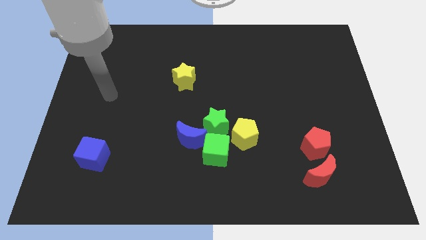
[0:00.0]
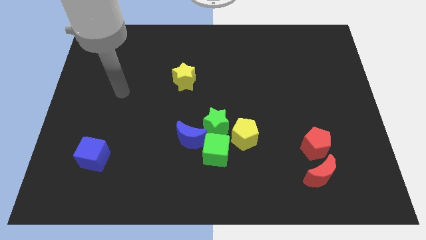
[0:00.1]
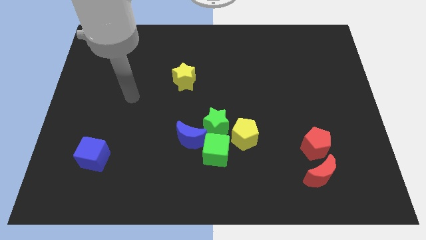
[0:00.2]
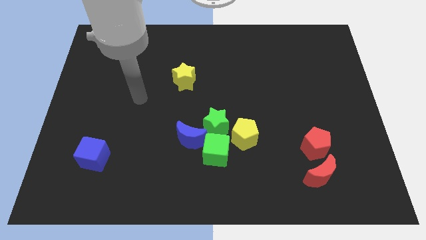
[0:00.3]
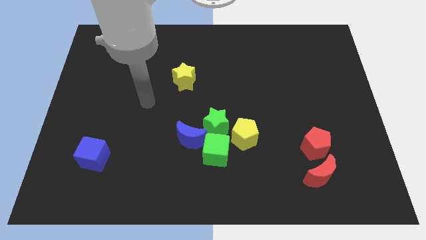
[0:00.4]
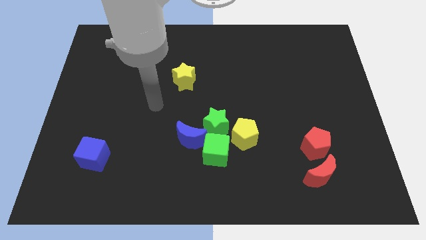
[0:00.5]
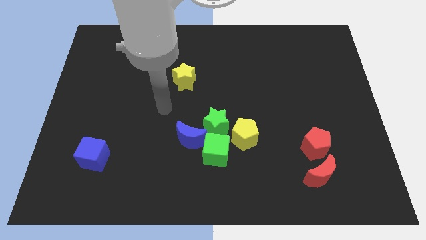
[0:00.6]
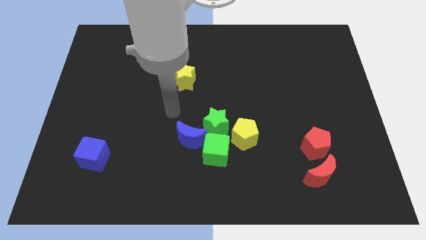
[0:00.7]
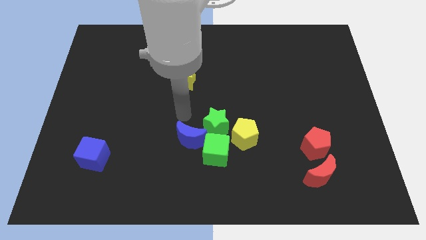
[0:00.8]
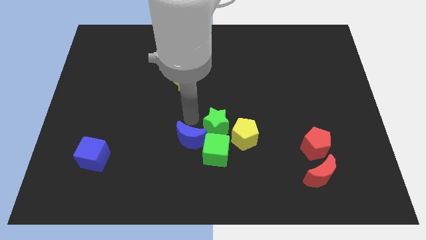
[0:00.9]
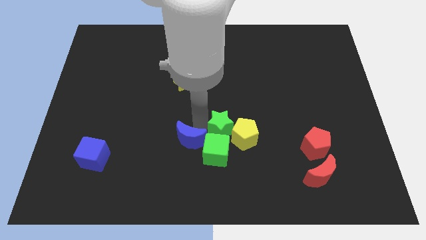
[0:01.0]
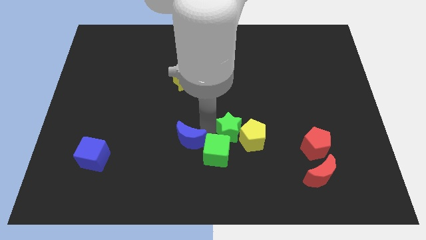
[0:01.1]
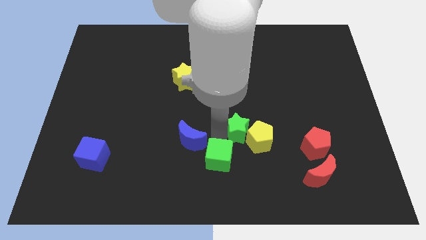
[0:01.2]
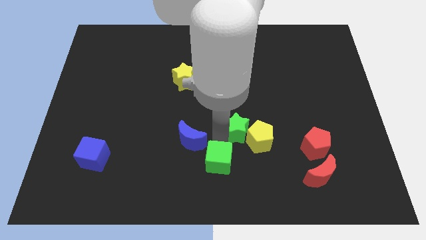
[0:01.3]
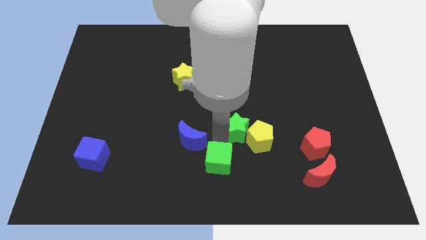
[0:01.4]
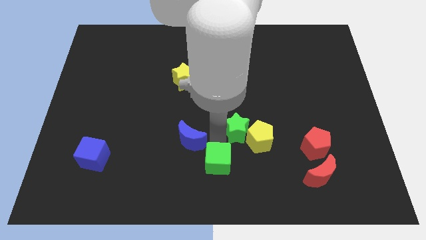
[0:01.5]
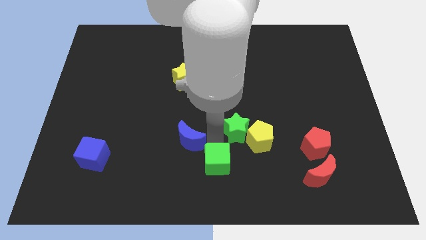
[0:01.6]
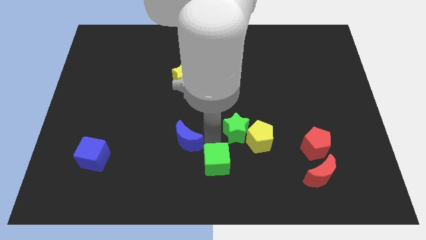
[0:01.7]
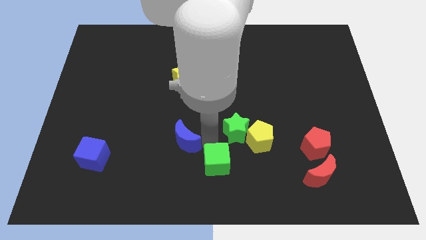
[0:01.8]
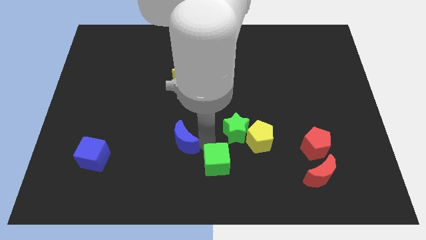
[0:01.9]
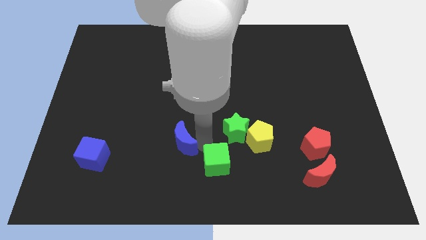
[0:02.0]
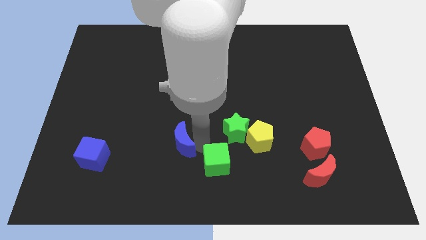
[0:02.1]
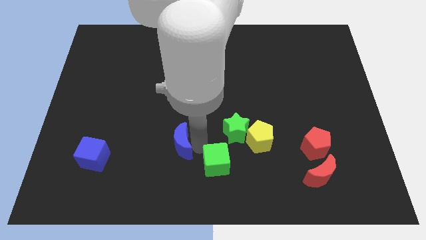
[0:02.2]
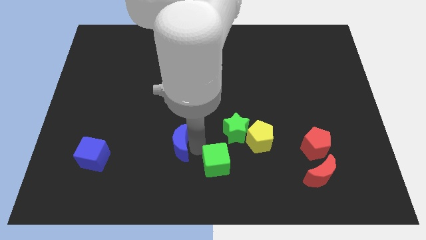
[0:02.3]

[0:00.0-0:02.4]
move the blue moon away from the green cube and green star

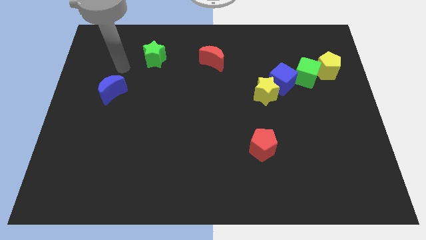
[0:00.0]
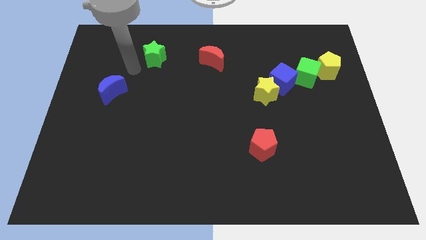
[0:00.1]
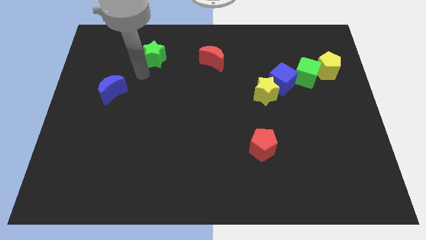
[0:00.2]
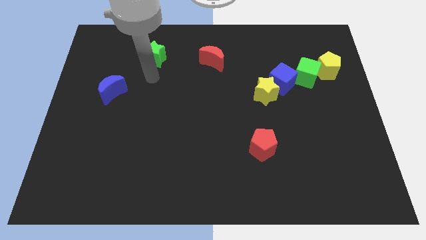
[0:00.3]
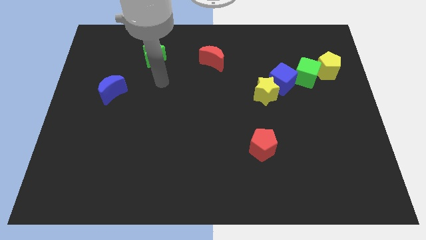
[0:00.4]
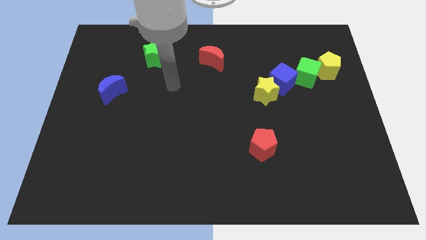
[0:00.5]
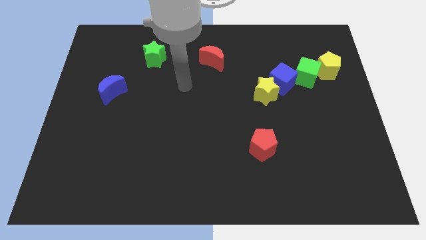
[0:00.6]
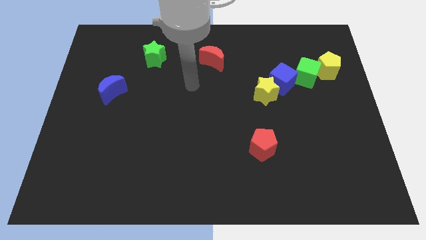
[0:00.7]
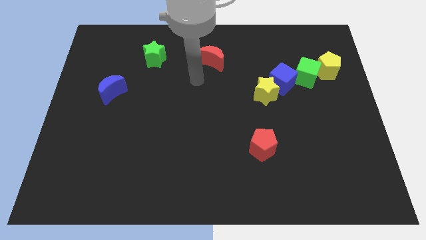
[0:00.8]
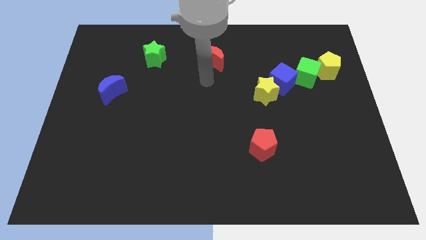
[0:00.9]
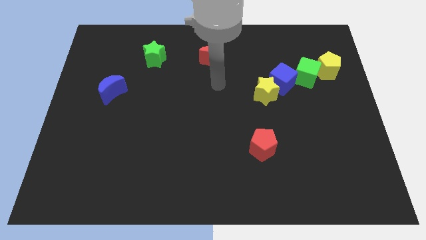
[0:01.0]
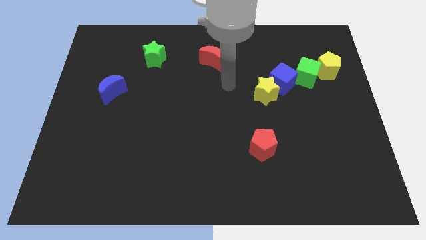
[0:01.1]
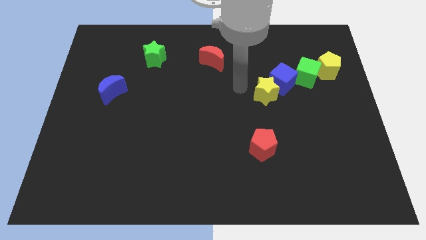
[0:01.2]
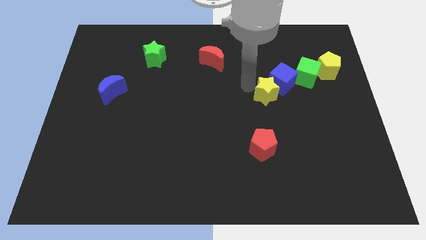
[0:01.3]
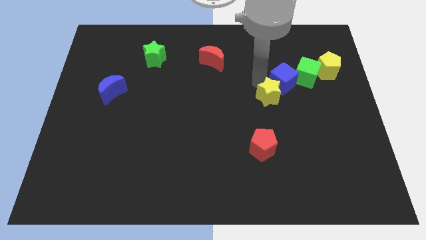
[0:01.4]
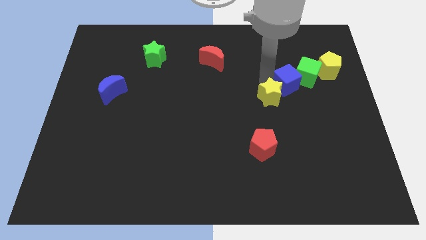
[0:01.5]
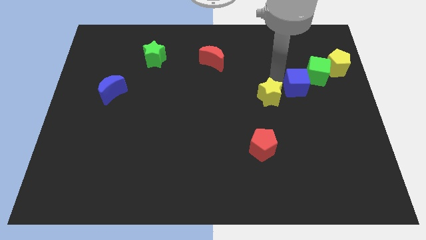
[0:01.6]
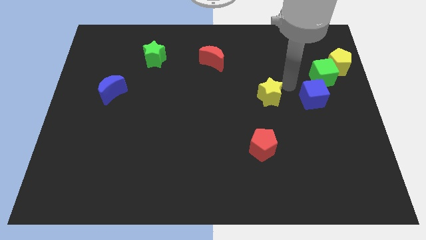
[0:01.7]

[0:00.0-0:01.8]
move the yellow star away from the blue cube

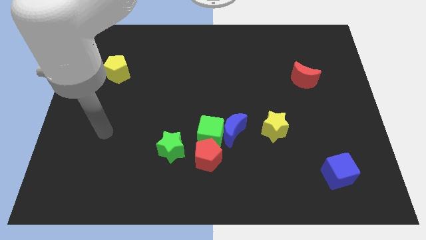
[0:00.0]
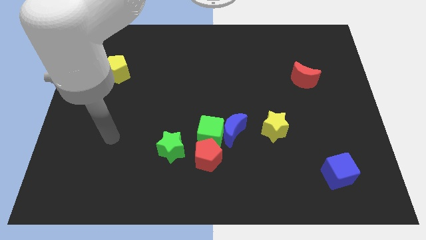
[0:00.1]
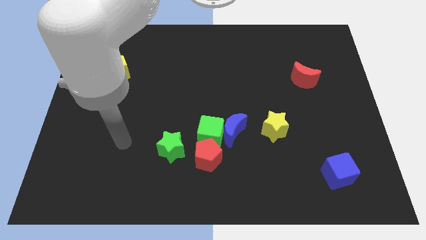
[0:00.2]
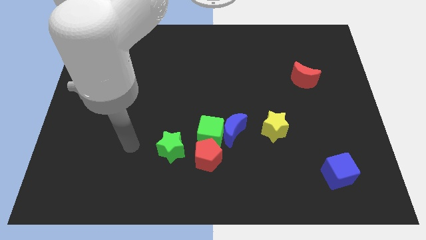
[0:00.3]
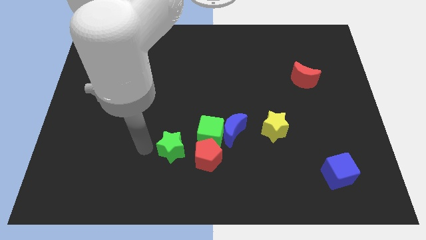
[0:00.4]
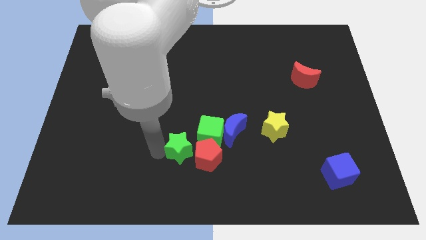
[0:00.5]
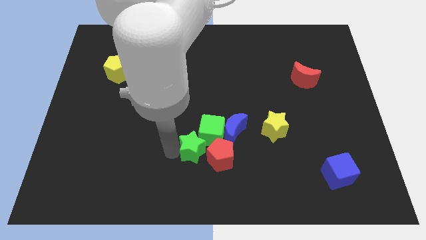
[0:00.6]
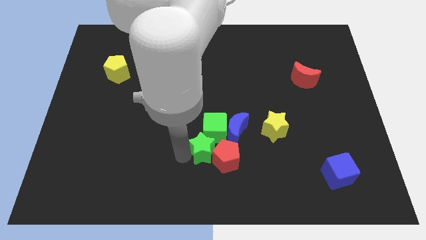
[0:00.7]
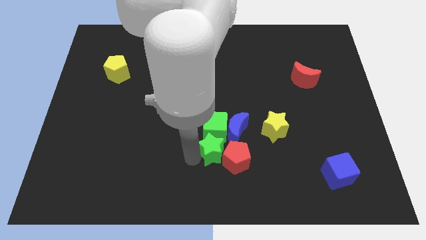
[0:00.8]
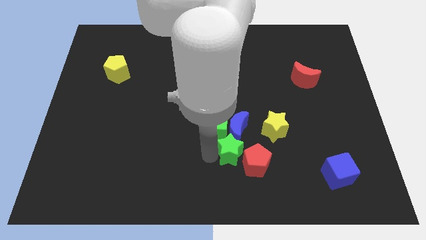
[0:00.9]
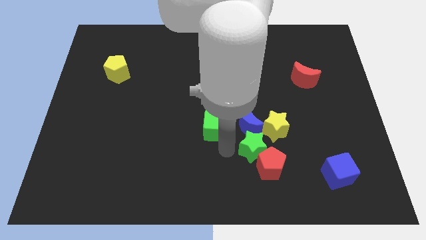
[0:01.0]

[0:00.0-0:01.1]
separate the green cube from the group of blocks

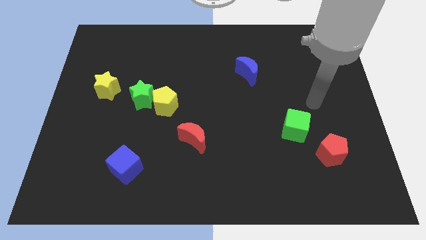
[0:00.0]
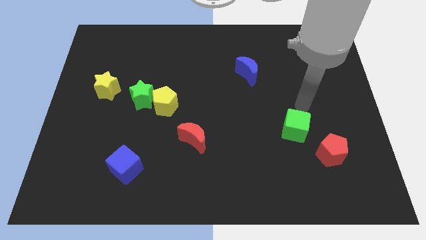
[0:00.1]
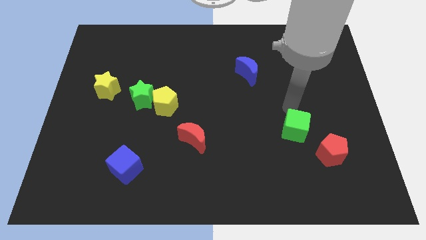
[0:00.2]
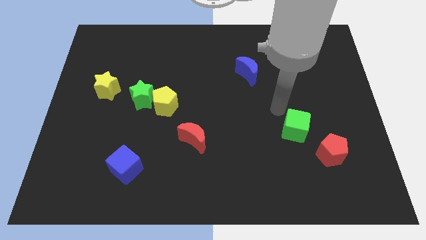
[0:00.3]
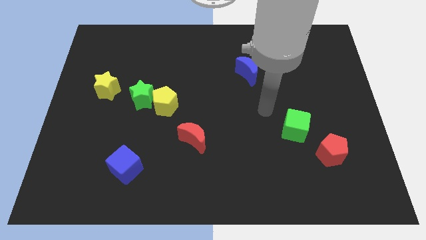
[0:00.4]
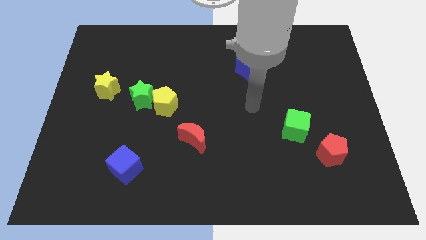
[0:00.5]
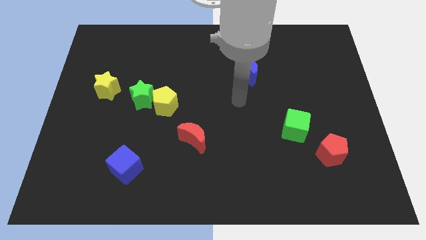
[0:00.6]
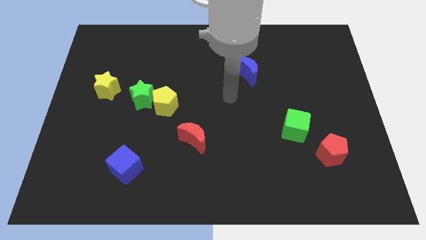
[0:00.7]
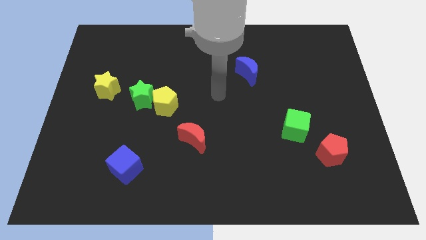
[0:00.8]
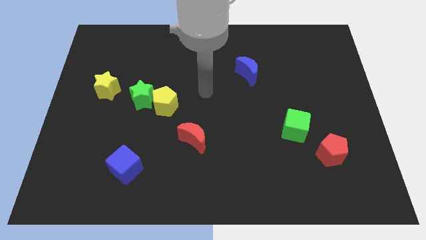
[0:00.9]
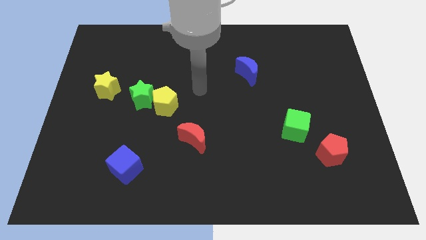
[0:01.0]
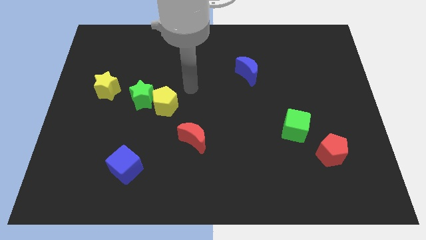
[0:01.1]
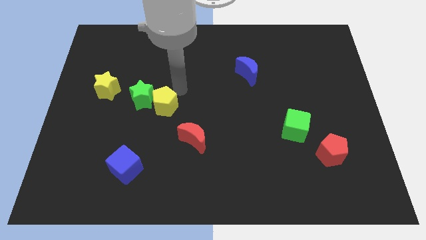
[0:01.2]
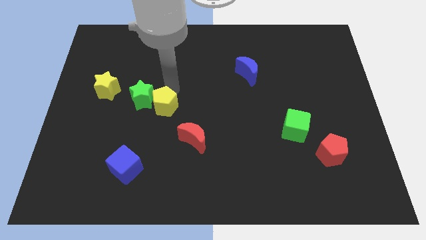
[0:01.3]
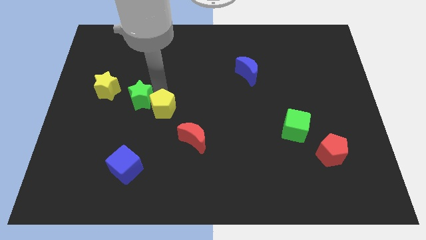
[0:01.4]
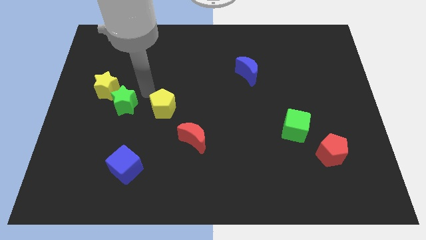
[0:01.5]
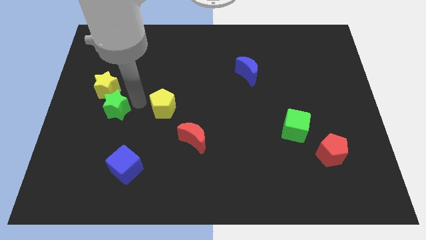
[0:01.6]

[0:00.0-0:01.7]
separate the yellow pentagon from the green star

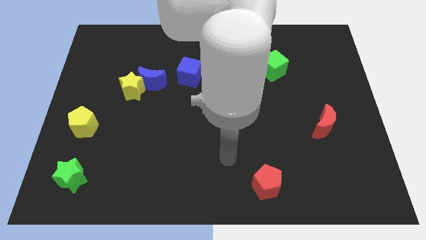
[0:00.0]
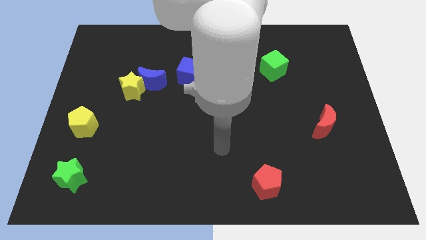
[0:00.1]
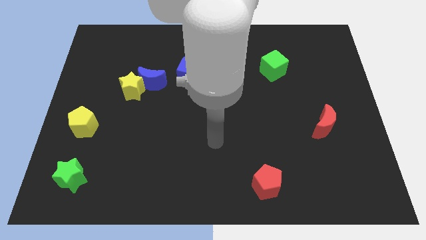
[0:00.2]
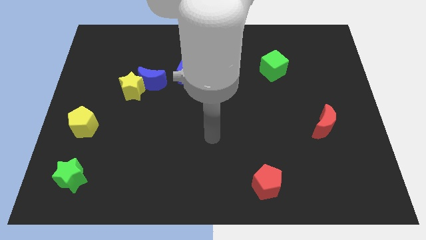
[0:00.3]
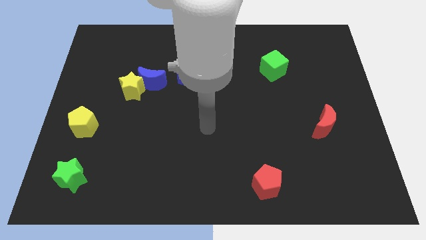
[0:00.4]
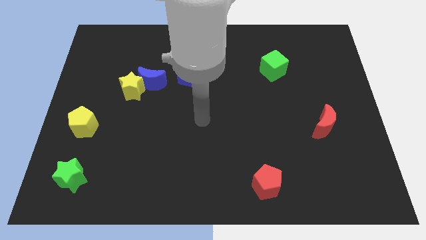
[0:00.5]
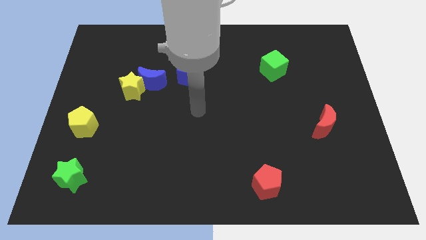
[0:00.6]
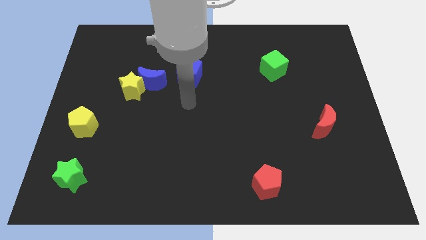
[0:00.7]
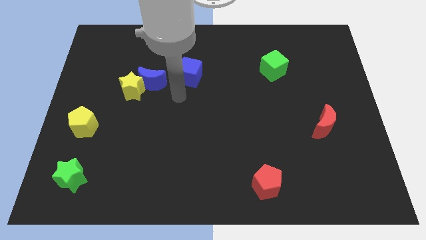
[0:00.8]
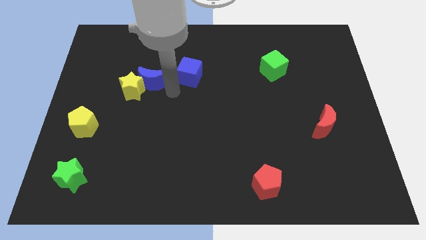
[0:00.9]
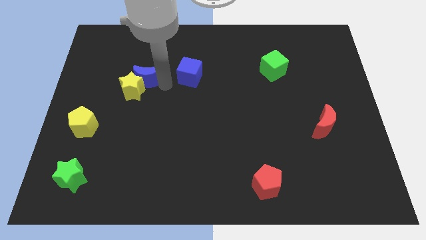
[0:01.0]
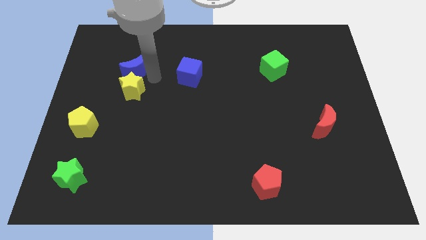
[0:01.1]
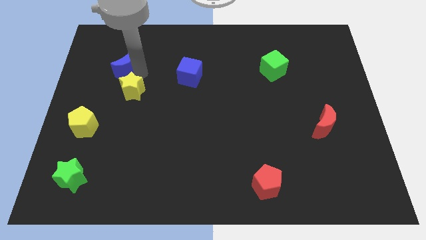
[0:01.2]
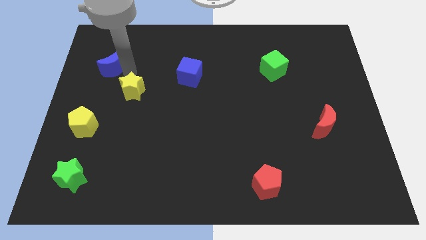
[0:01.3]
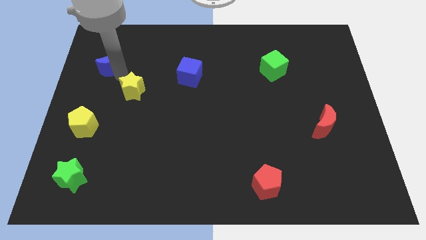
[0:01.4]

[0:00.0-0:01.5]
move the yellow star away from the blue moon

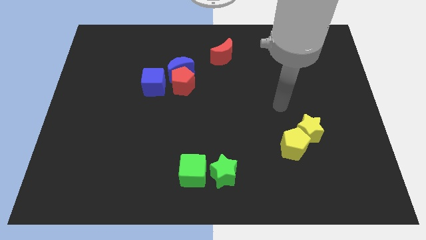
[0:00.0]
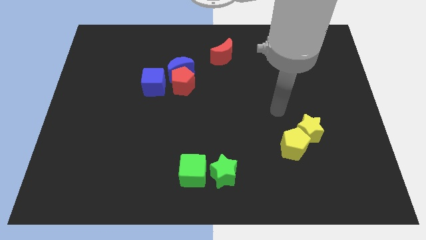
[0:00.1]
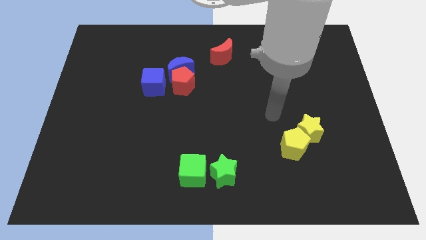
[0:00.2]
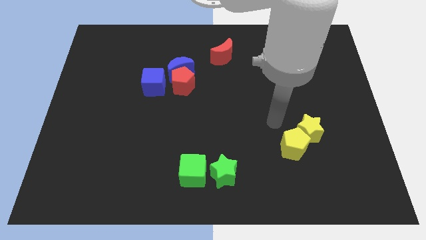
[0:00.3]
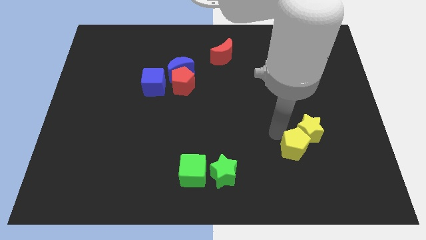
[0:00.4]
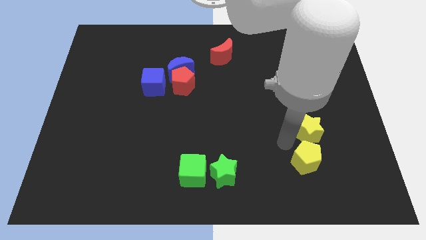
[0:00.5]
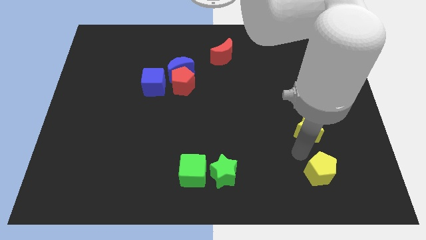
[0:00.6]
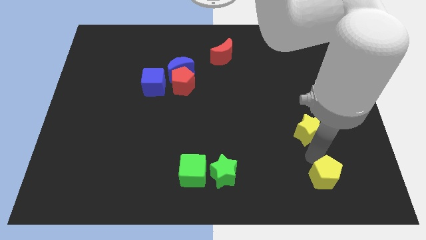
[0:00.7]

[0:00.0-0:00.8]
pull the yellow star apart from the yellow pentagon
